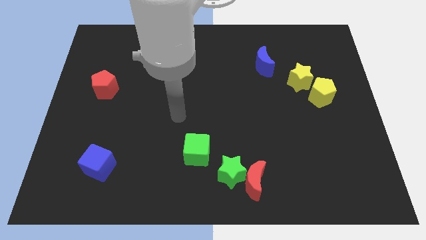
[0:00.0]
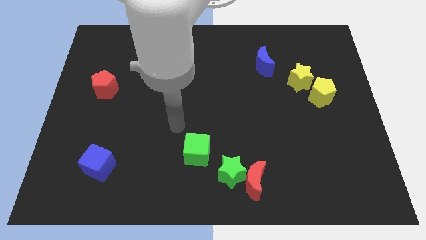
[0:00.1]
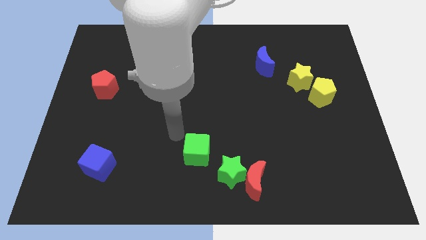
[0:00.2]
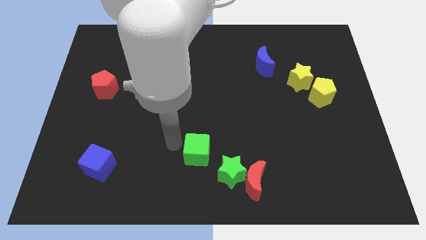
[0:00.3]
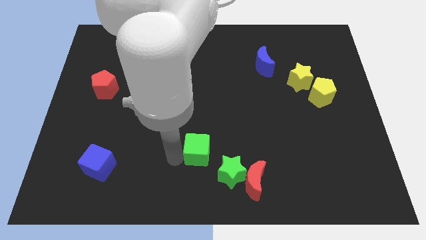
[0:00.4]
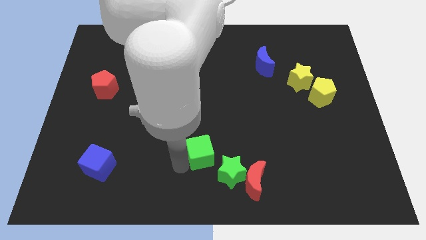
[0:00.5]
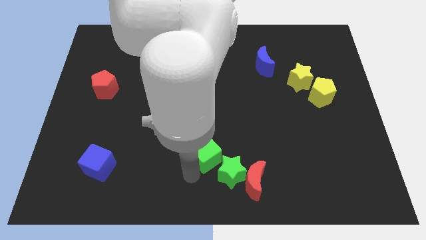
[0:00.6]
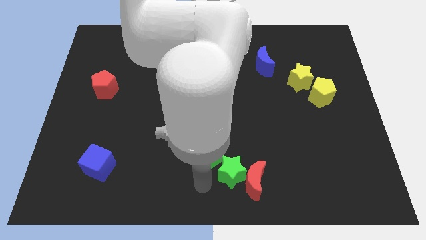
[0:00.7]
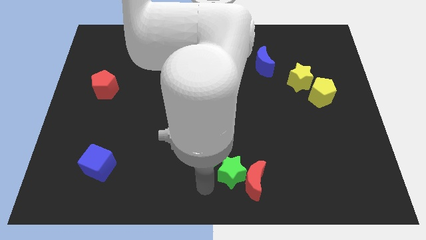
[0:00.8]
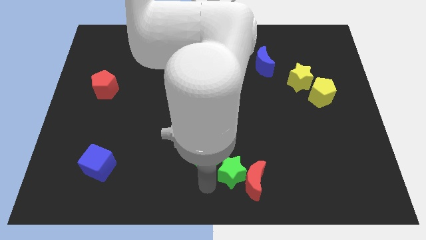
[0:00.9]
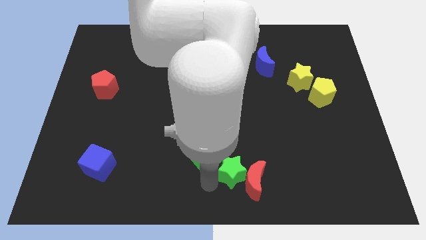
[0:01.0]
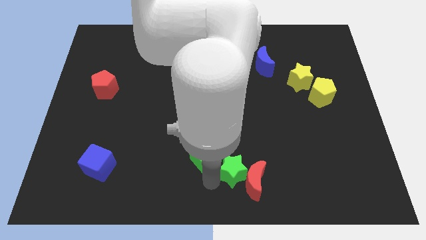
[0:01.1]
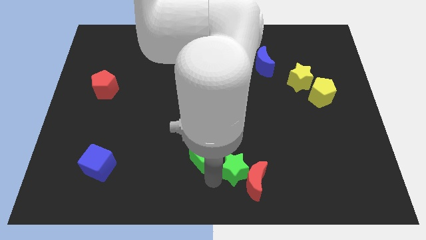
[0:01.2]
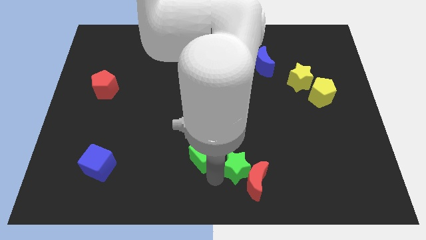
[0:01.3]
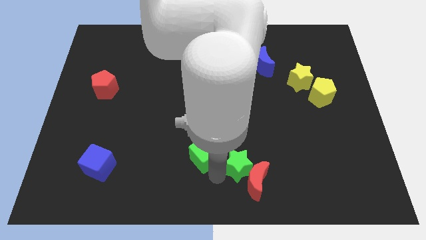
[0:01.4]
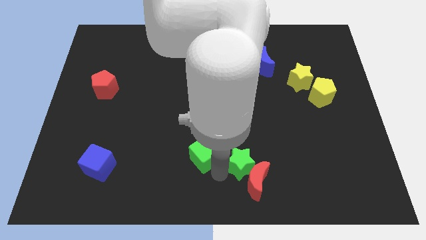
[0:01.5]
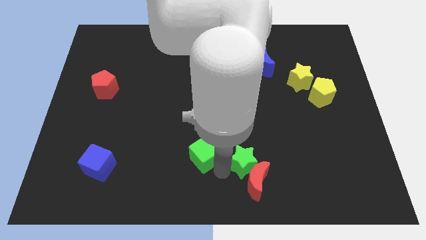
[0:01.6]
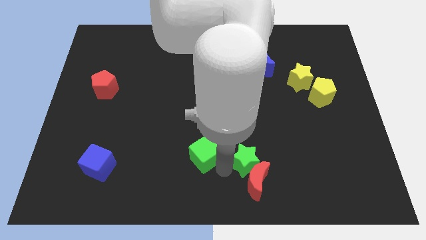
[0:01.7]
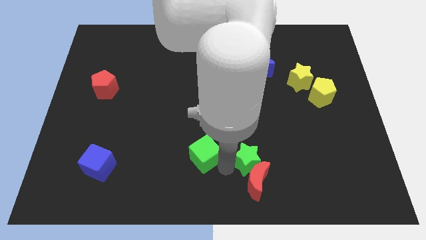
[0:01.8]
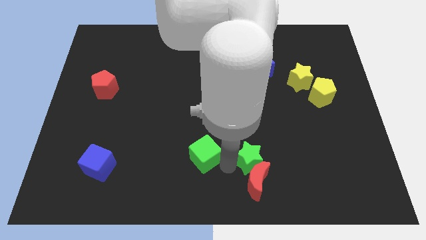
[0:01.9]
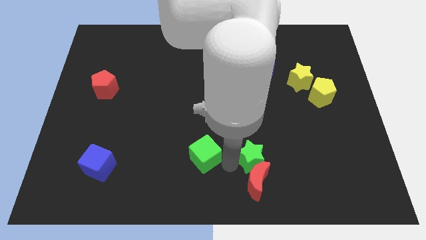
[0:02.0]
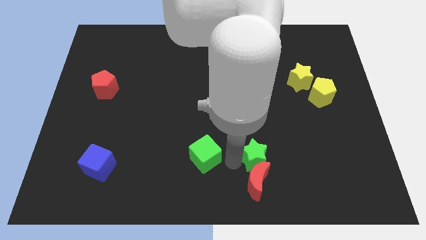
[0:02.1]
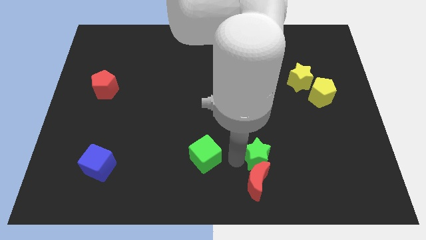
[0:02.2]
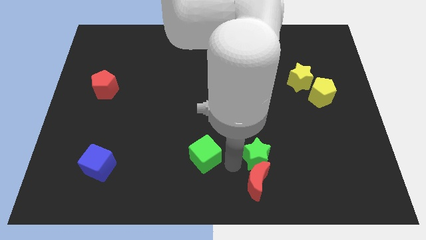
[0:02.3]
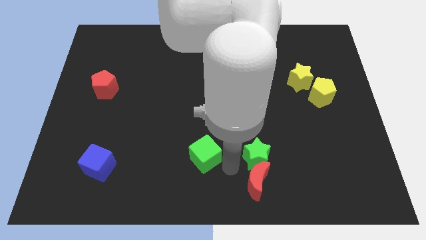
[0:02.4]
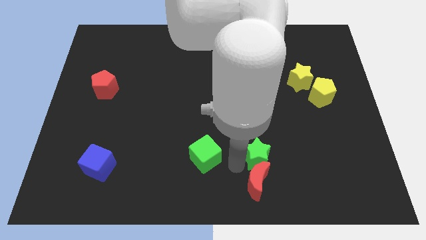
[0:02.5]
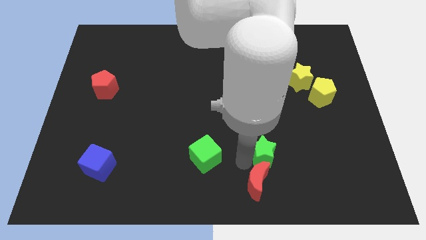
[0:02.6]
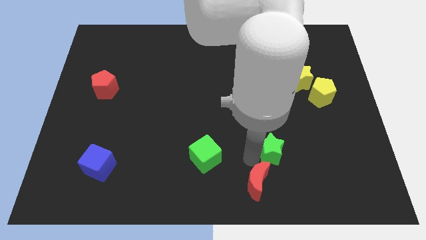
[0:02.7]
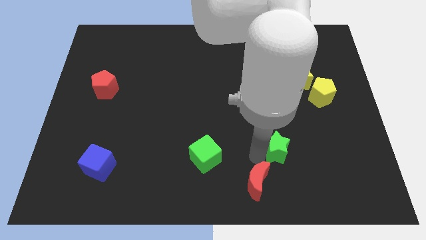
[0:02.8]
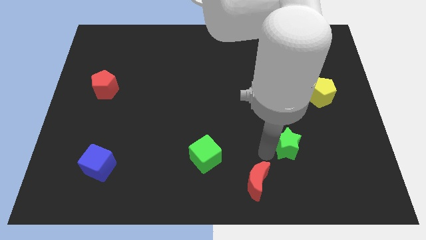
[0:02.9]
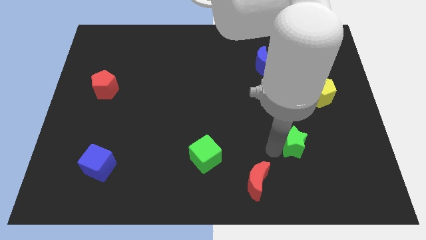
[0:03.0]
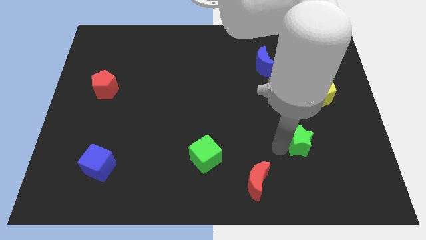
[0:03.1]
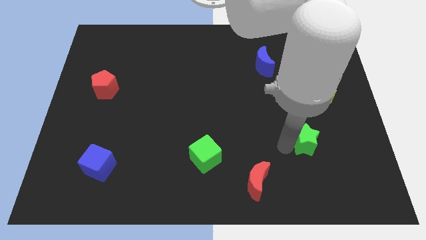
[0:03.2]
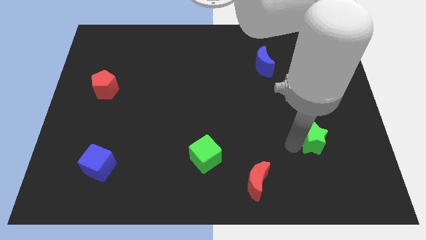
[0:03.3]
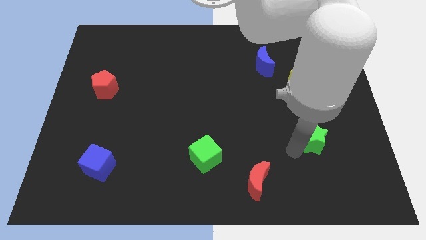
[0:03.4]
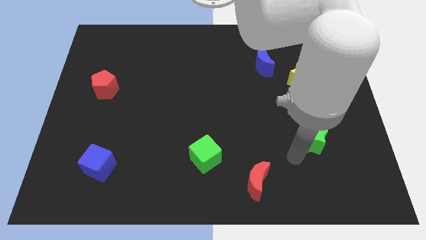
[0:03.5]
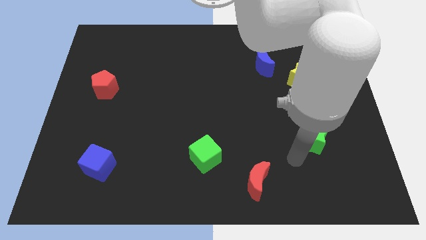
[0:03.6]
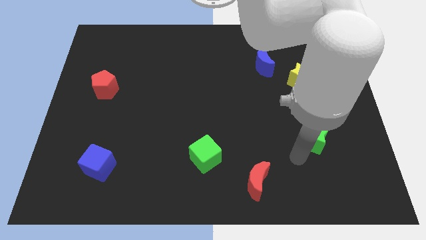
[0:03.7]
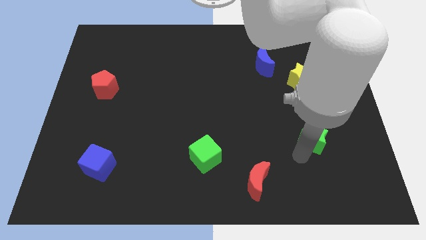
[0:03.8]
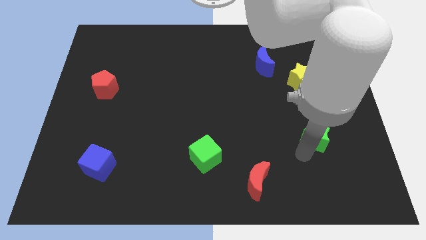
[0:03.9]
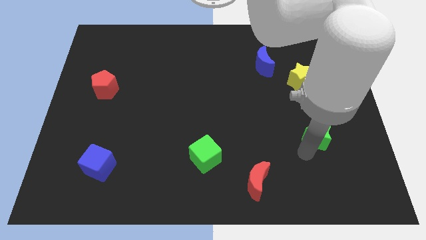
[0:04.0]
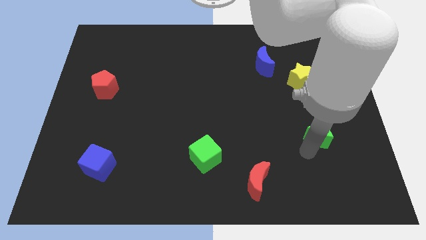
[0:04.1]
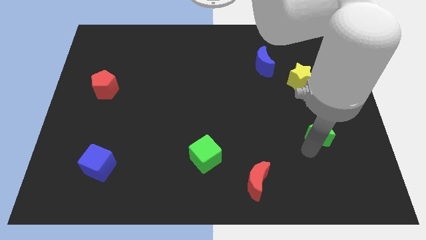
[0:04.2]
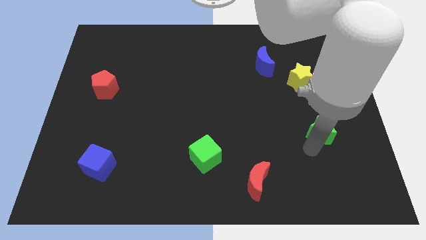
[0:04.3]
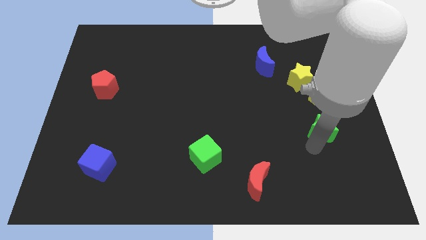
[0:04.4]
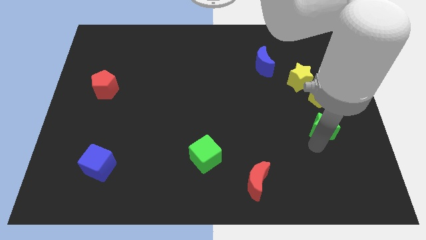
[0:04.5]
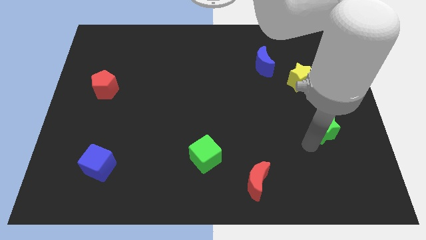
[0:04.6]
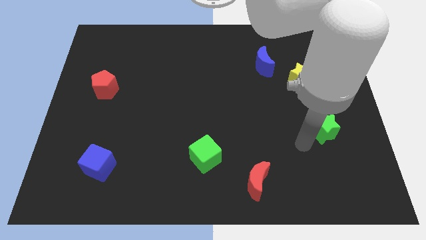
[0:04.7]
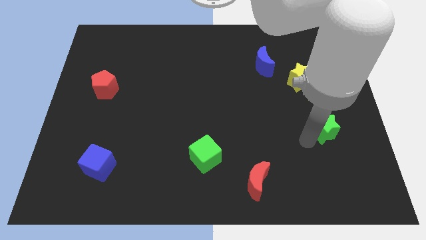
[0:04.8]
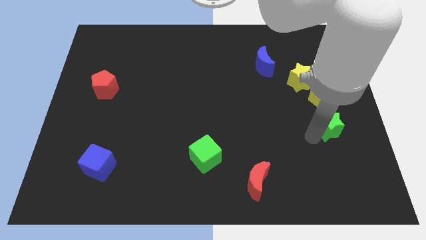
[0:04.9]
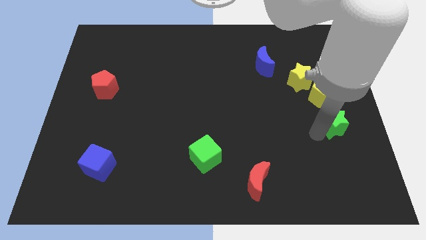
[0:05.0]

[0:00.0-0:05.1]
slide the green star to the right side of the board

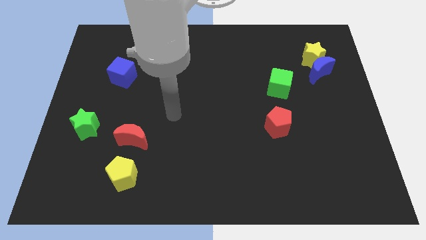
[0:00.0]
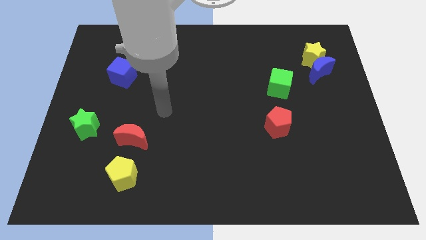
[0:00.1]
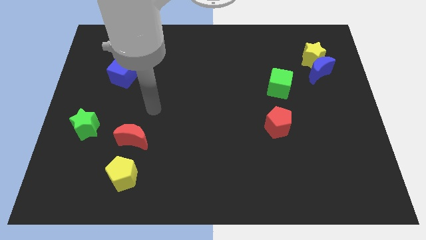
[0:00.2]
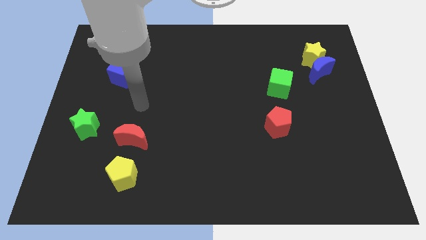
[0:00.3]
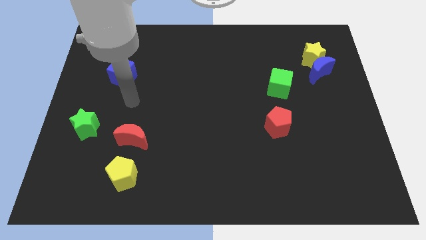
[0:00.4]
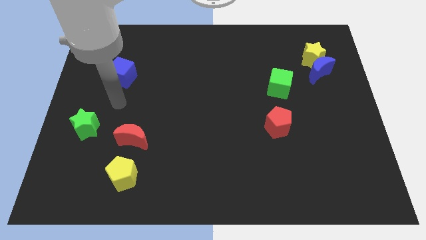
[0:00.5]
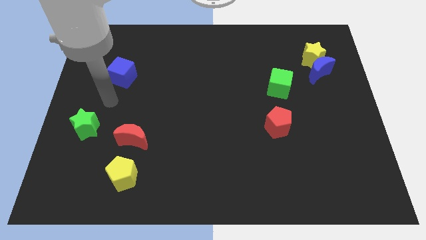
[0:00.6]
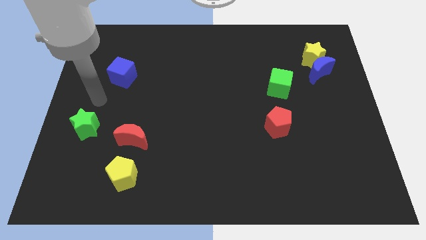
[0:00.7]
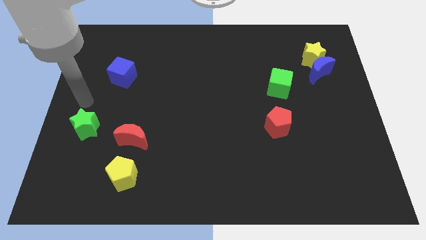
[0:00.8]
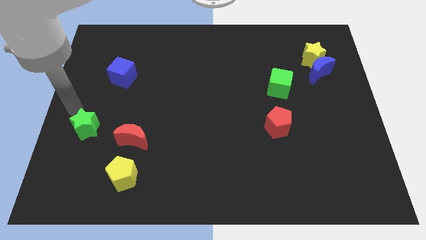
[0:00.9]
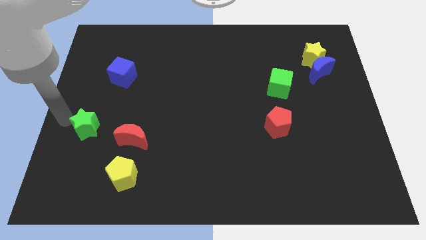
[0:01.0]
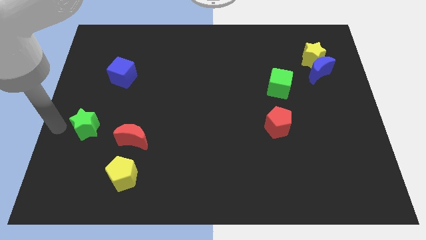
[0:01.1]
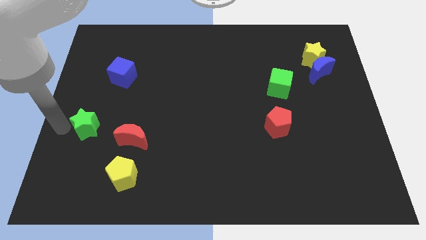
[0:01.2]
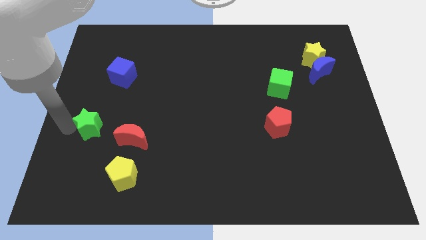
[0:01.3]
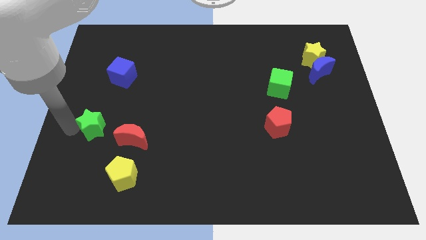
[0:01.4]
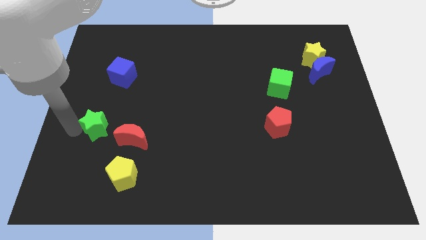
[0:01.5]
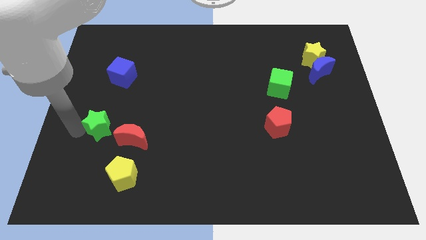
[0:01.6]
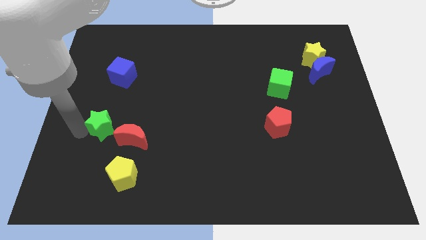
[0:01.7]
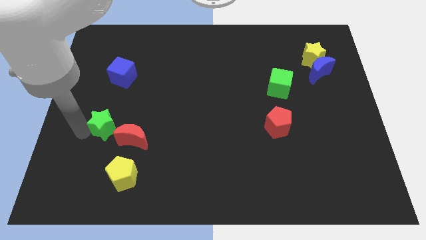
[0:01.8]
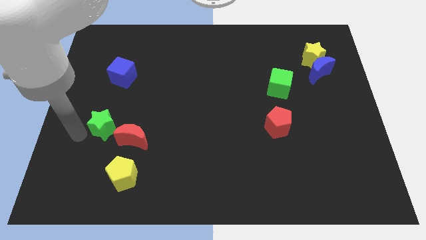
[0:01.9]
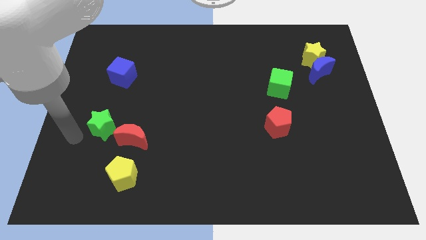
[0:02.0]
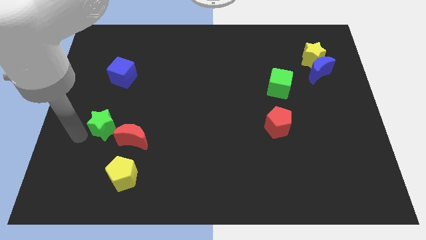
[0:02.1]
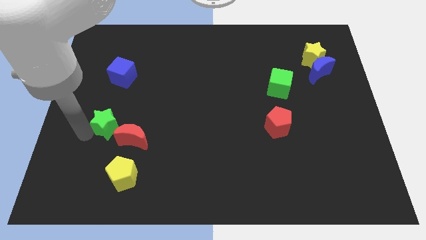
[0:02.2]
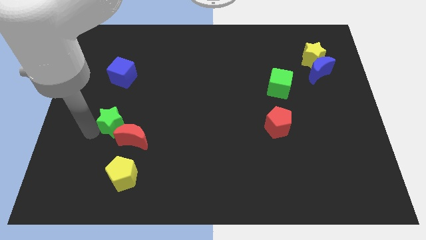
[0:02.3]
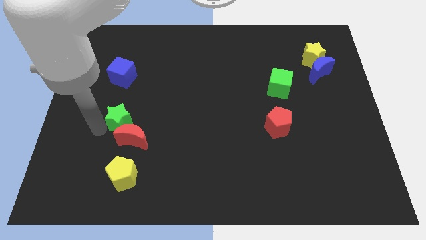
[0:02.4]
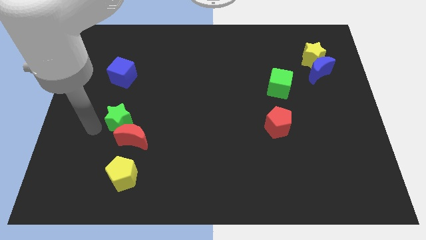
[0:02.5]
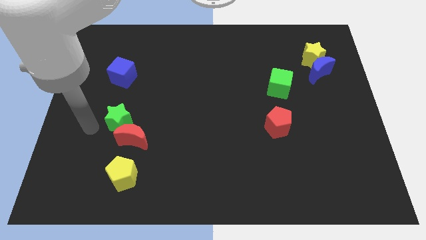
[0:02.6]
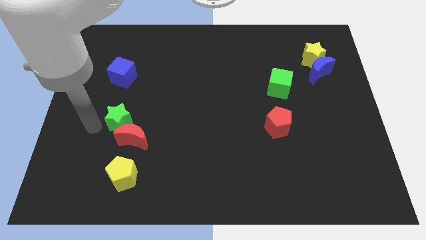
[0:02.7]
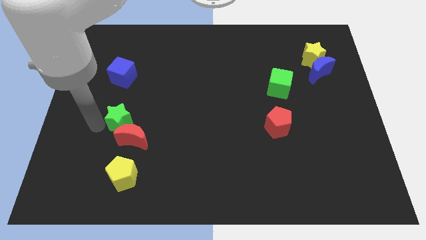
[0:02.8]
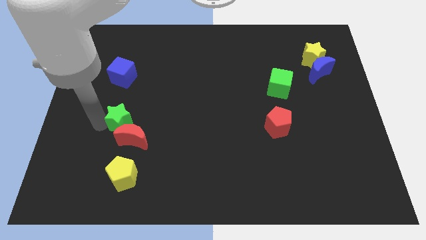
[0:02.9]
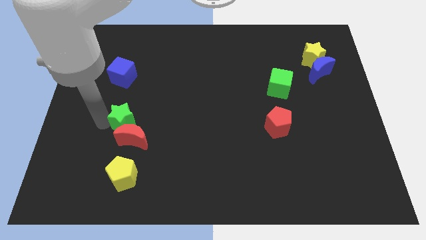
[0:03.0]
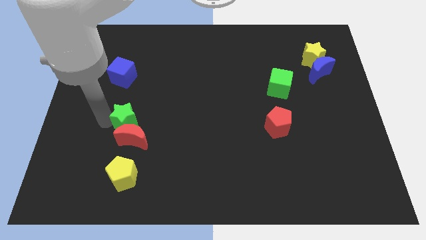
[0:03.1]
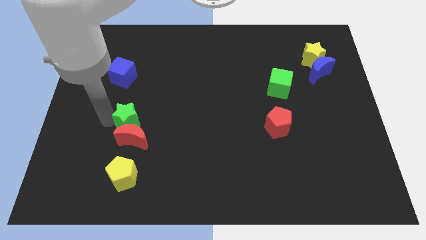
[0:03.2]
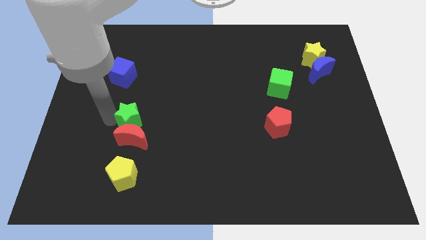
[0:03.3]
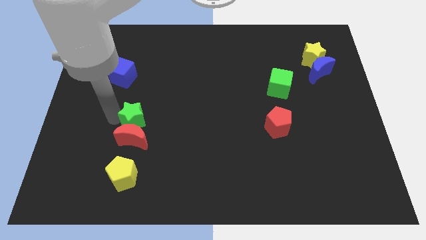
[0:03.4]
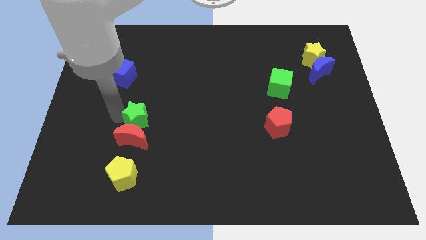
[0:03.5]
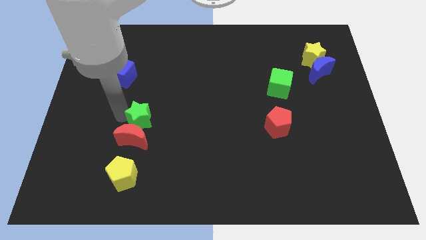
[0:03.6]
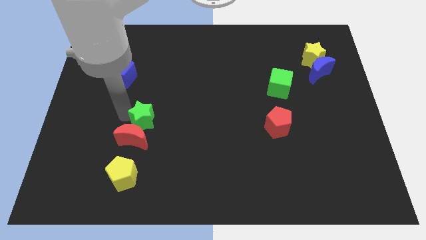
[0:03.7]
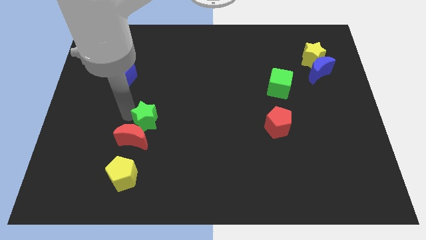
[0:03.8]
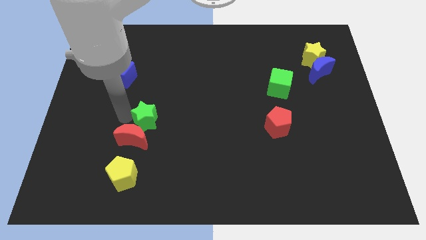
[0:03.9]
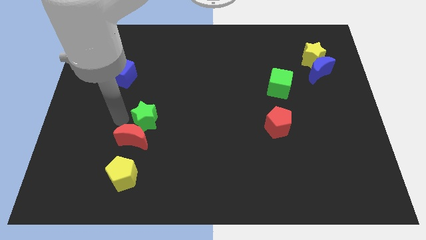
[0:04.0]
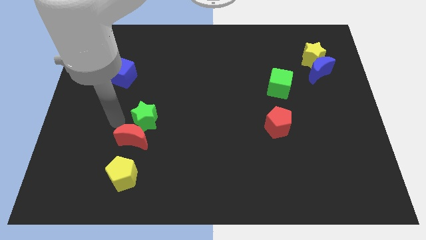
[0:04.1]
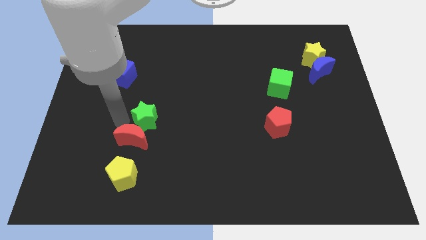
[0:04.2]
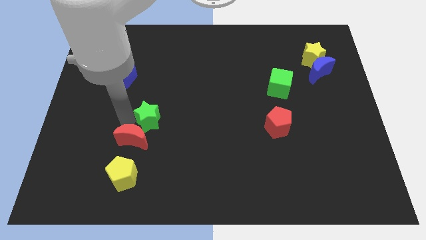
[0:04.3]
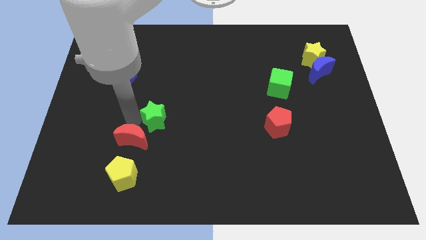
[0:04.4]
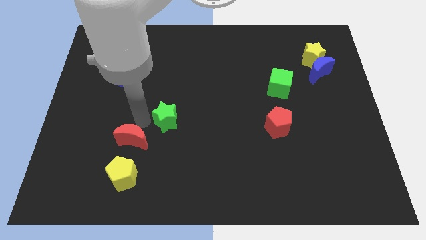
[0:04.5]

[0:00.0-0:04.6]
move the green star to the middle of the board
